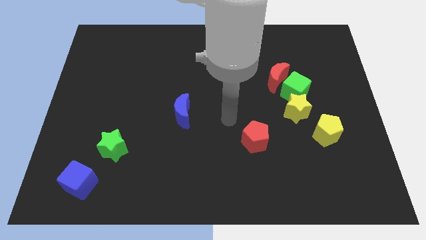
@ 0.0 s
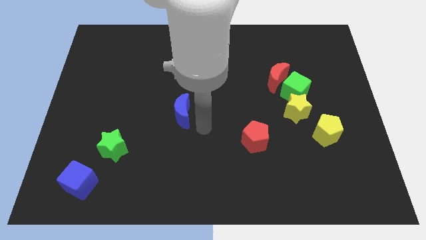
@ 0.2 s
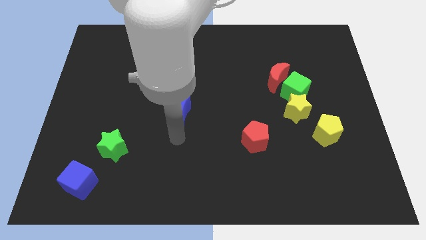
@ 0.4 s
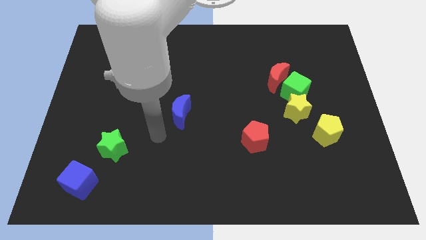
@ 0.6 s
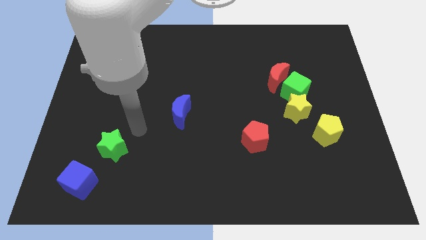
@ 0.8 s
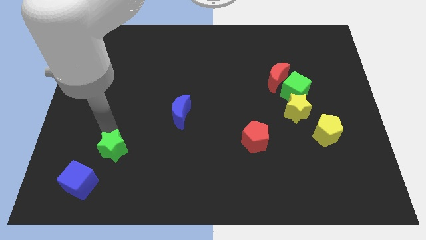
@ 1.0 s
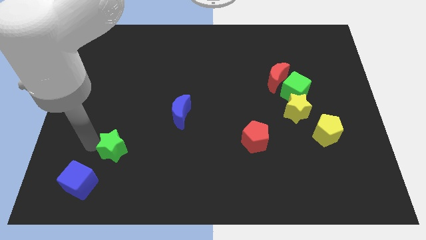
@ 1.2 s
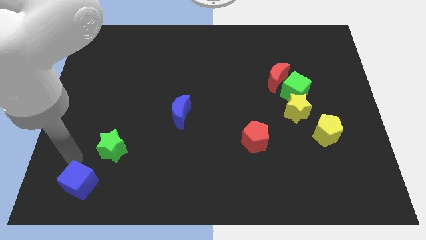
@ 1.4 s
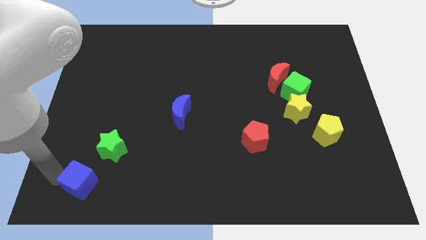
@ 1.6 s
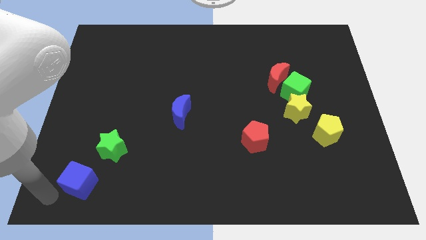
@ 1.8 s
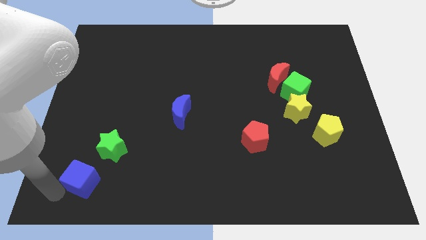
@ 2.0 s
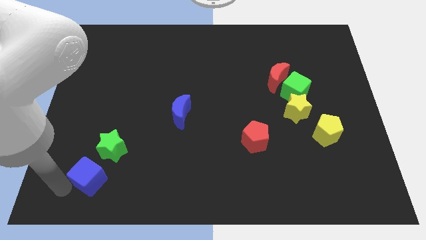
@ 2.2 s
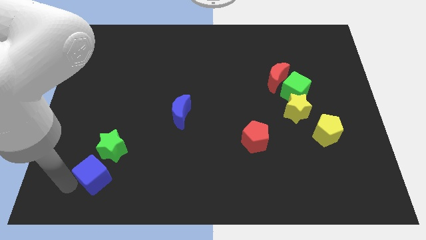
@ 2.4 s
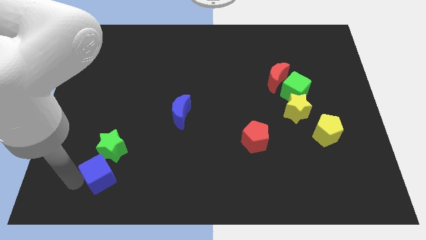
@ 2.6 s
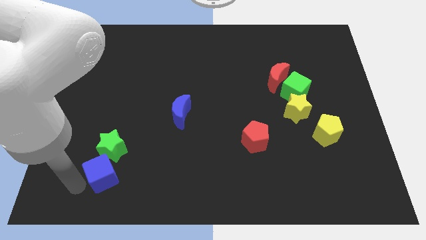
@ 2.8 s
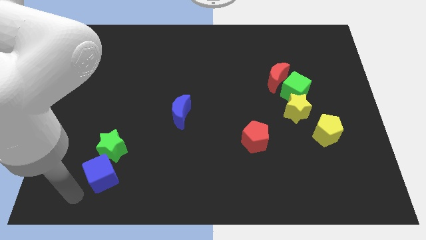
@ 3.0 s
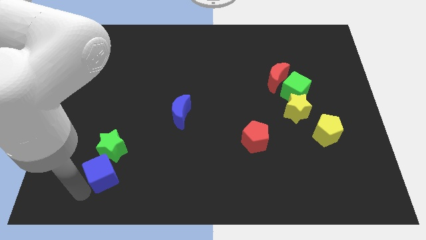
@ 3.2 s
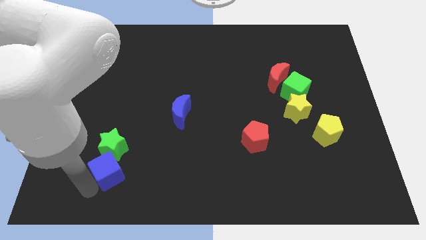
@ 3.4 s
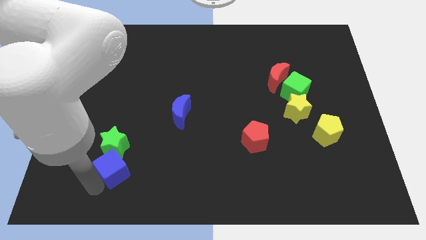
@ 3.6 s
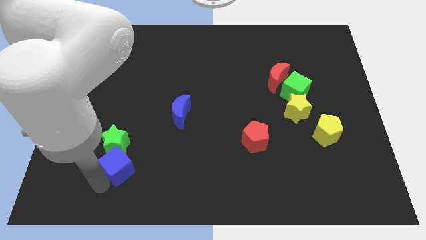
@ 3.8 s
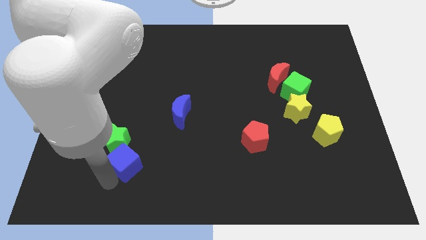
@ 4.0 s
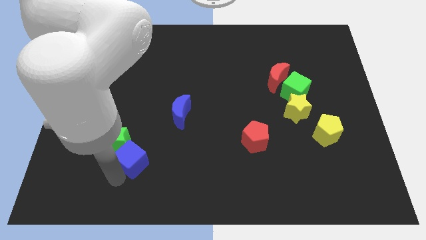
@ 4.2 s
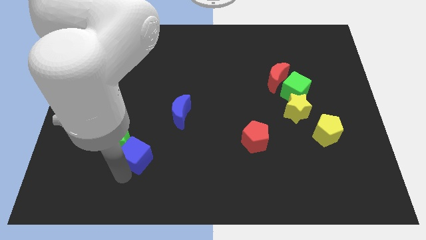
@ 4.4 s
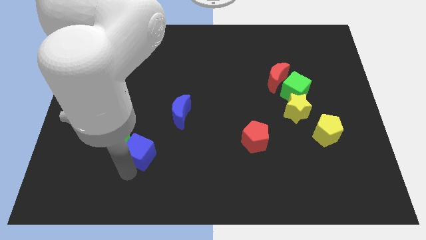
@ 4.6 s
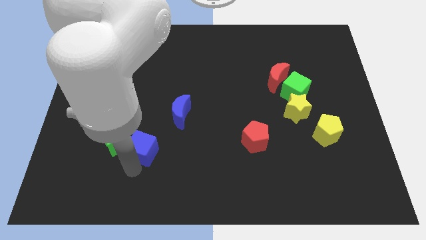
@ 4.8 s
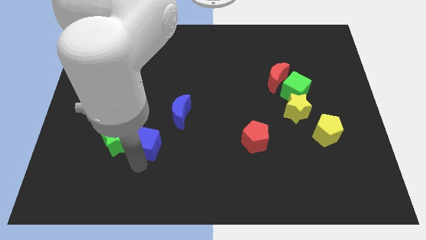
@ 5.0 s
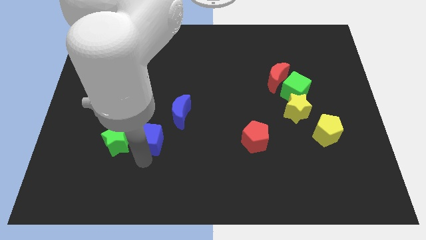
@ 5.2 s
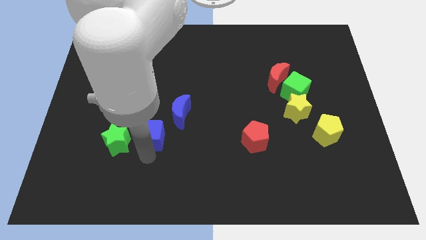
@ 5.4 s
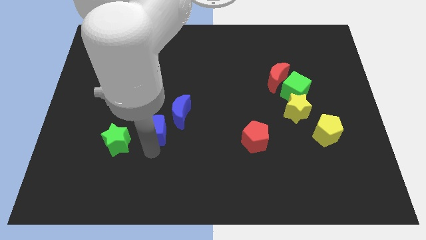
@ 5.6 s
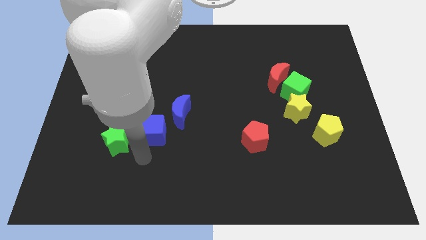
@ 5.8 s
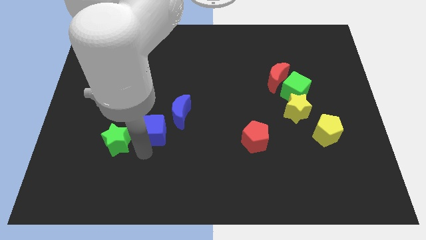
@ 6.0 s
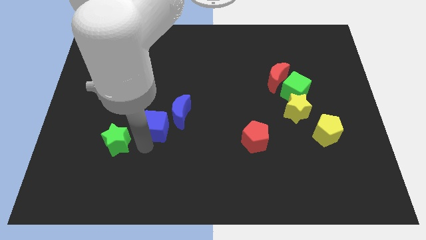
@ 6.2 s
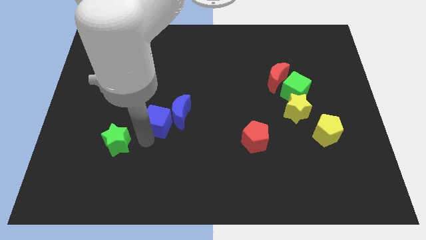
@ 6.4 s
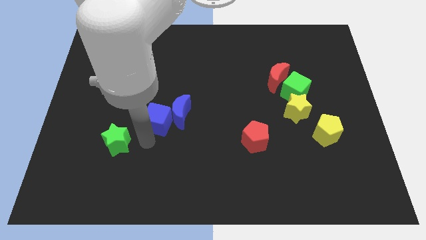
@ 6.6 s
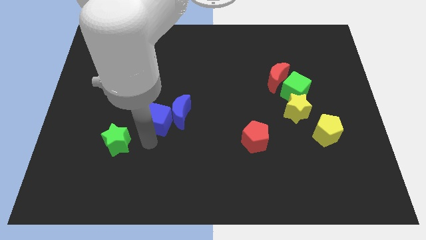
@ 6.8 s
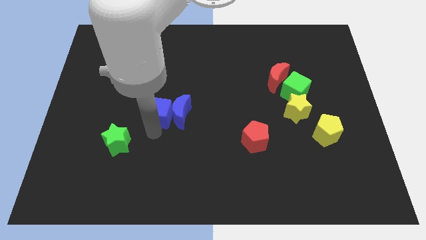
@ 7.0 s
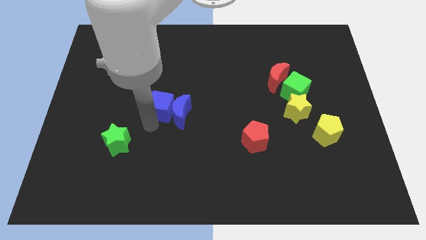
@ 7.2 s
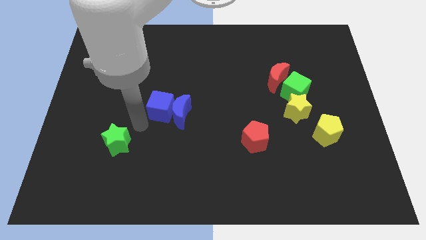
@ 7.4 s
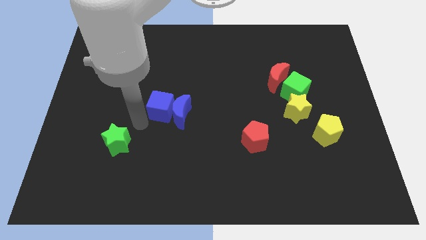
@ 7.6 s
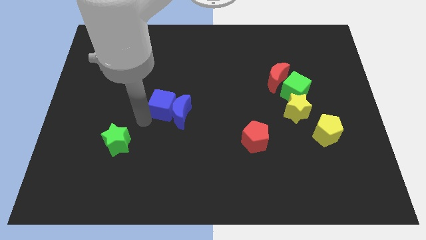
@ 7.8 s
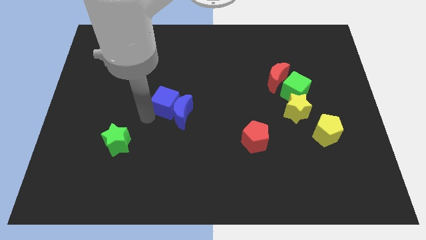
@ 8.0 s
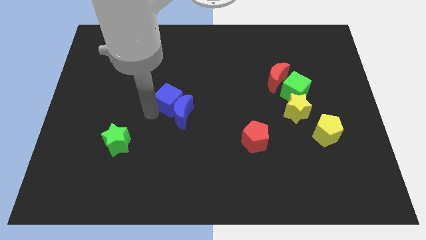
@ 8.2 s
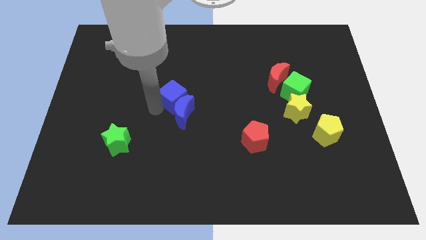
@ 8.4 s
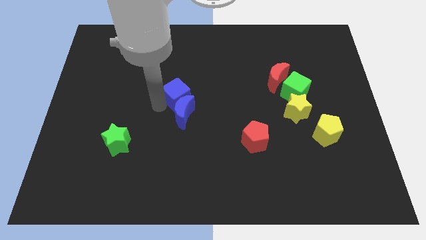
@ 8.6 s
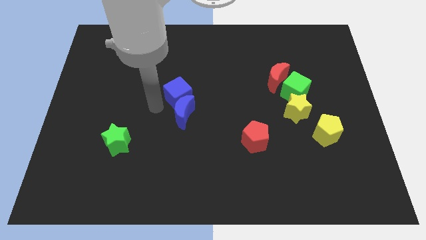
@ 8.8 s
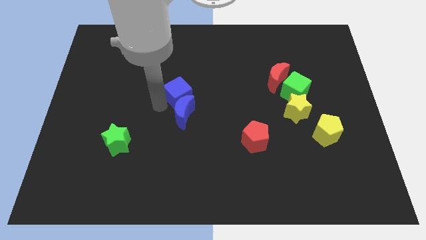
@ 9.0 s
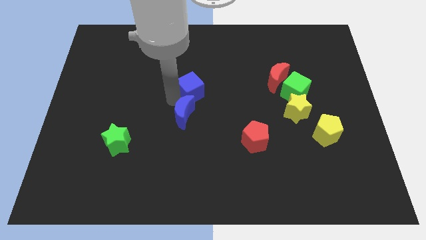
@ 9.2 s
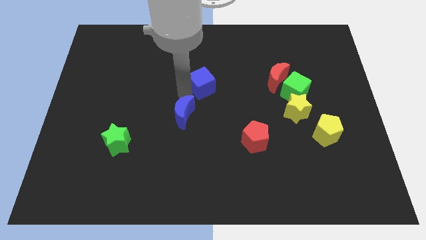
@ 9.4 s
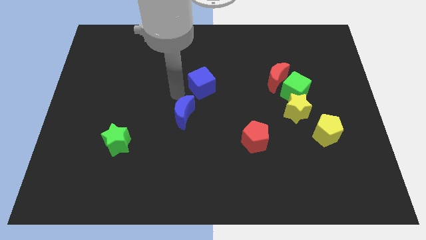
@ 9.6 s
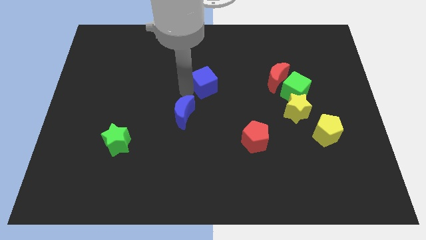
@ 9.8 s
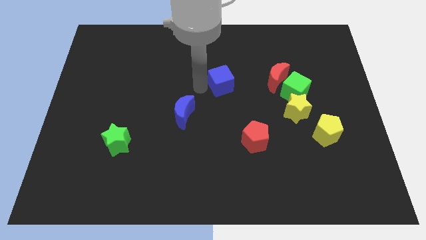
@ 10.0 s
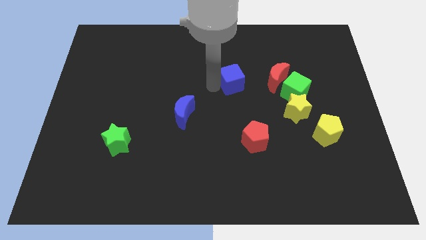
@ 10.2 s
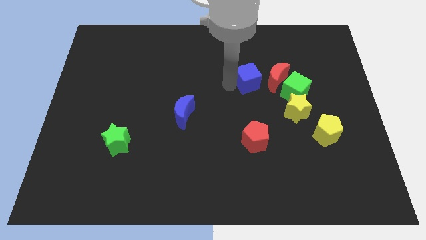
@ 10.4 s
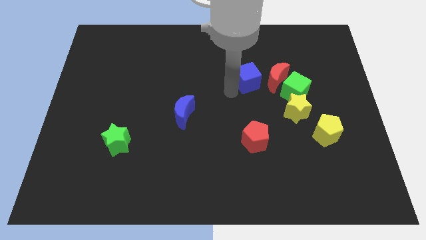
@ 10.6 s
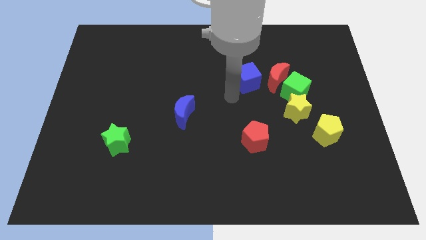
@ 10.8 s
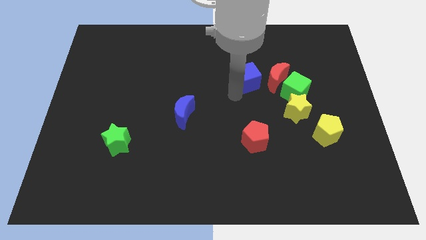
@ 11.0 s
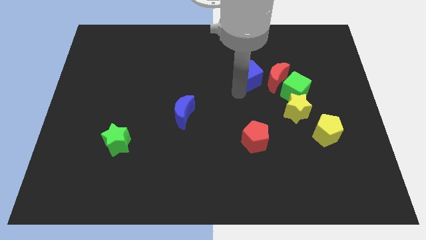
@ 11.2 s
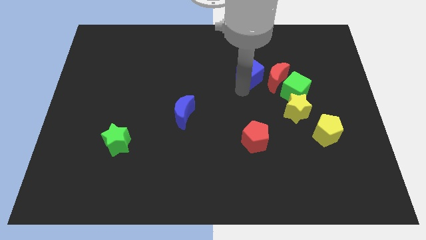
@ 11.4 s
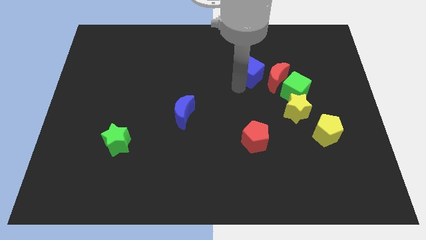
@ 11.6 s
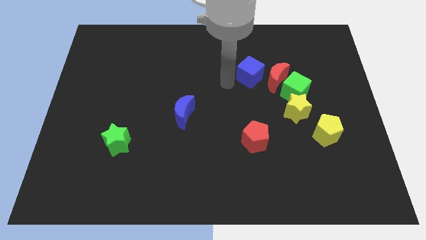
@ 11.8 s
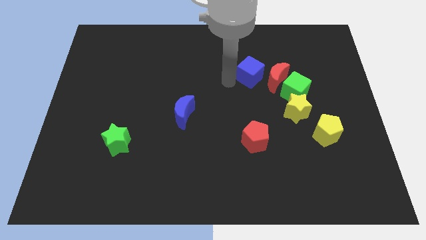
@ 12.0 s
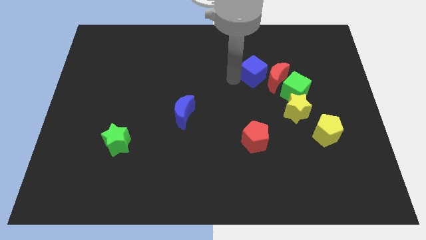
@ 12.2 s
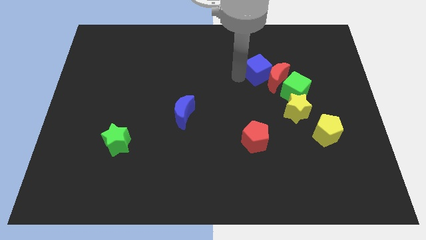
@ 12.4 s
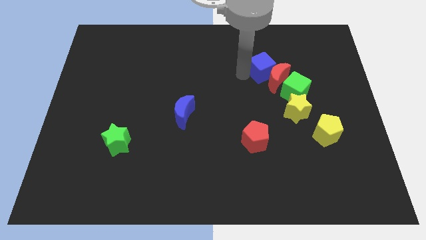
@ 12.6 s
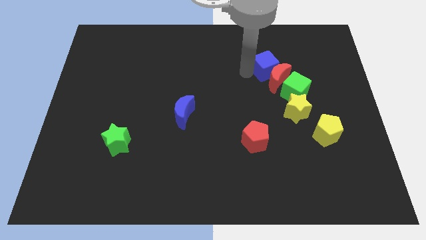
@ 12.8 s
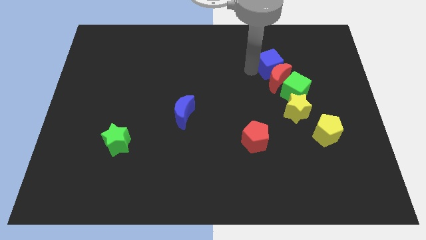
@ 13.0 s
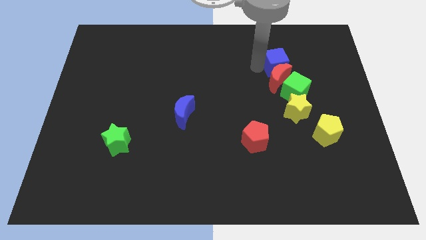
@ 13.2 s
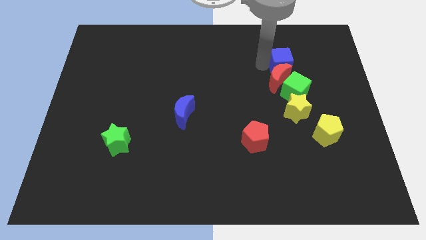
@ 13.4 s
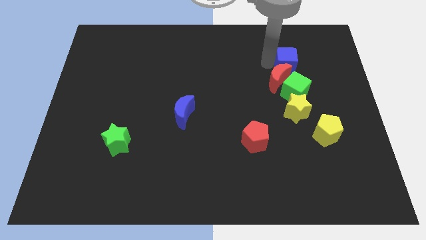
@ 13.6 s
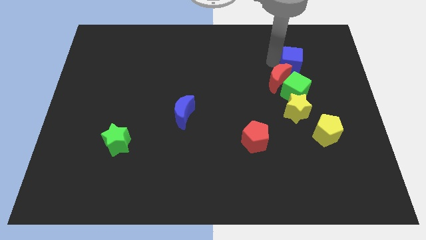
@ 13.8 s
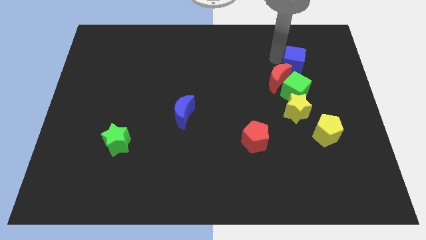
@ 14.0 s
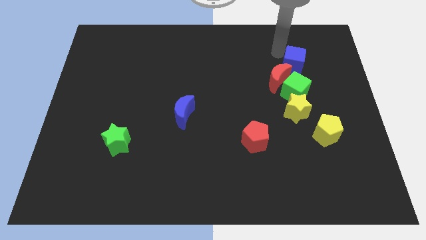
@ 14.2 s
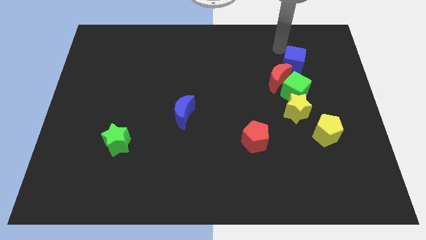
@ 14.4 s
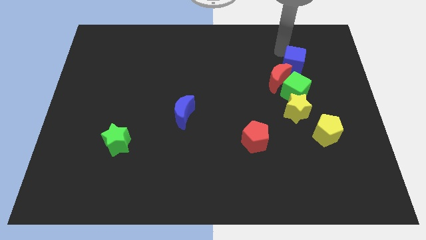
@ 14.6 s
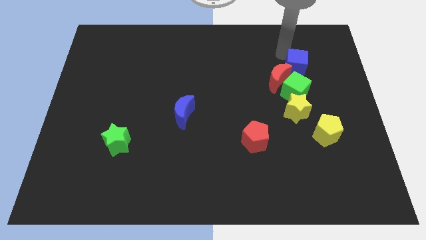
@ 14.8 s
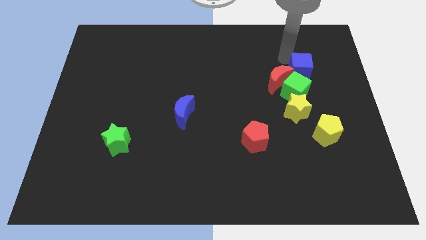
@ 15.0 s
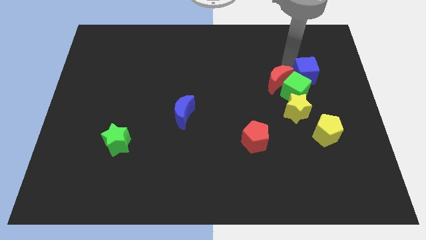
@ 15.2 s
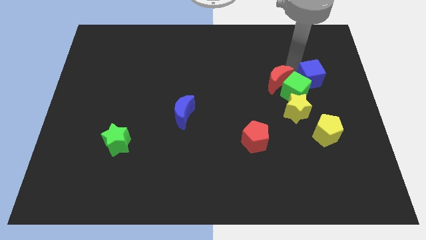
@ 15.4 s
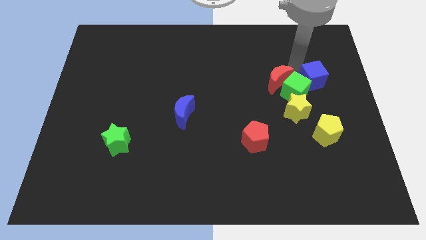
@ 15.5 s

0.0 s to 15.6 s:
move the blue cube to the top side of the yellow pentagon
